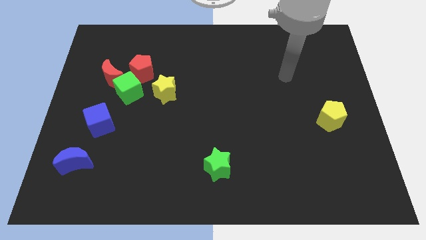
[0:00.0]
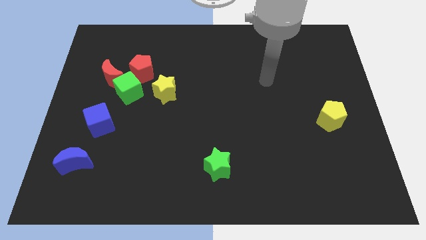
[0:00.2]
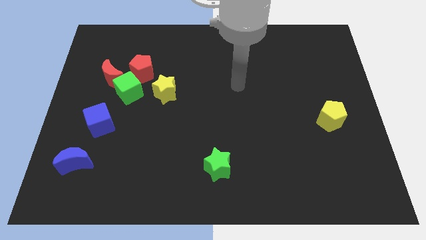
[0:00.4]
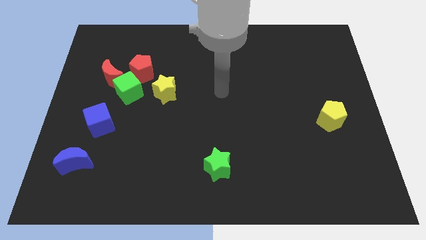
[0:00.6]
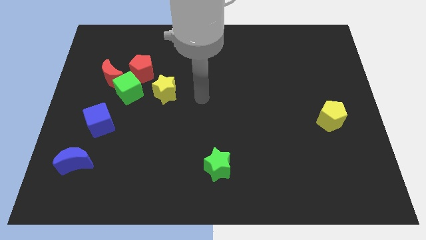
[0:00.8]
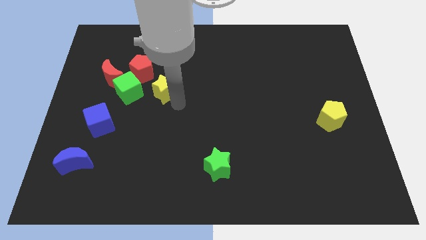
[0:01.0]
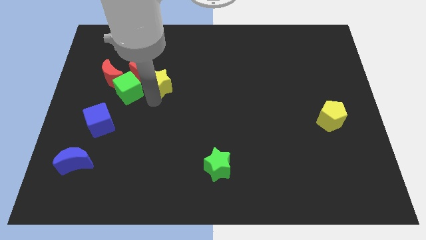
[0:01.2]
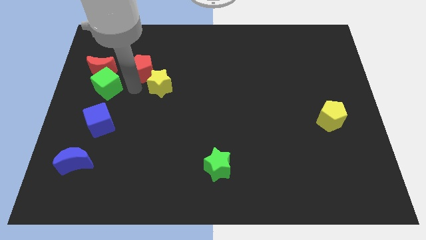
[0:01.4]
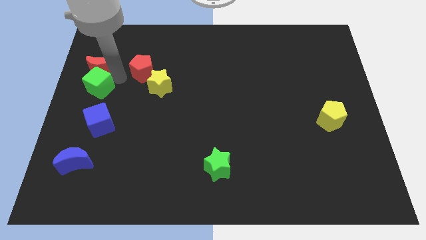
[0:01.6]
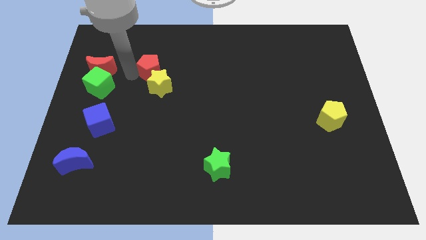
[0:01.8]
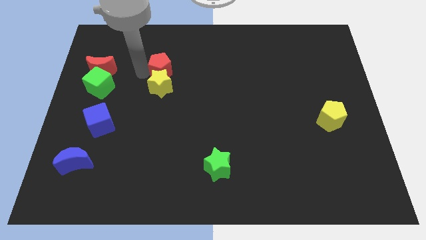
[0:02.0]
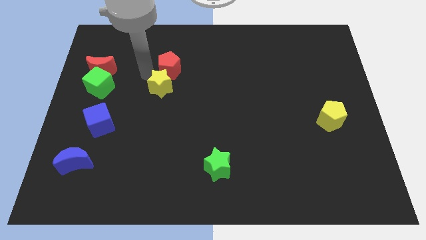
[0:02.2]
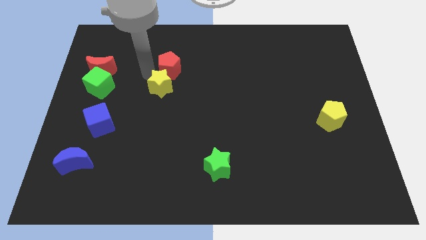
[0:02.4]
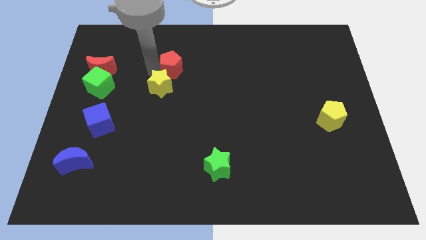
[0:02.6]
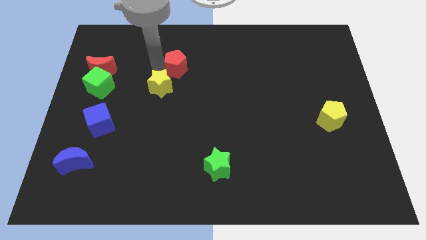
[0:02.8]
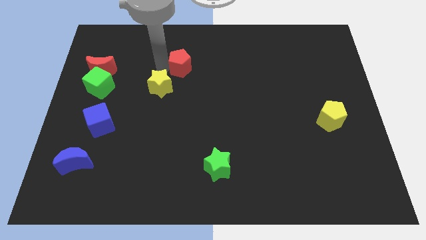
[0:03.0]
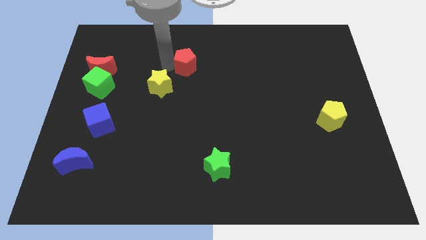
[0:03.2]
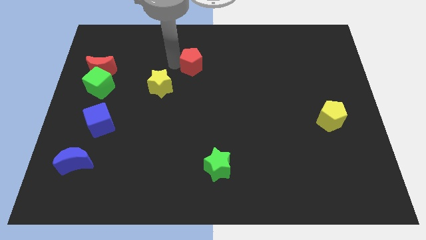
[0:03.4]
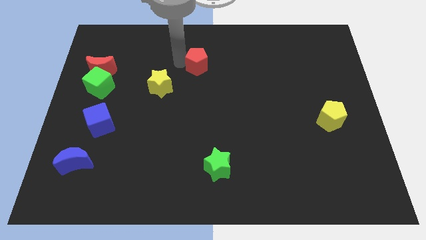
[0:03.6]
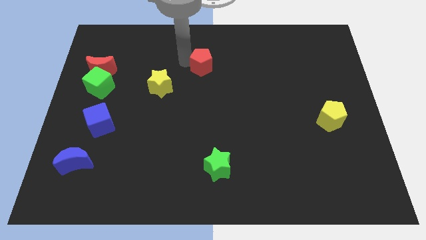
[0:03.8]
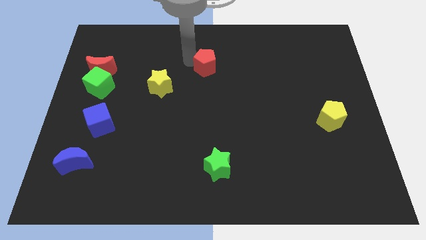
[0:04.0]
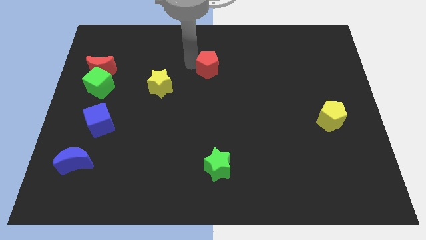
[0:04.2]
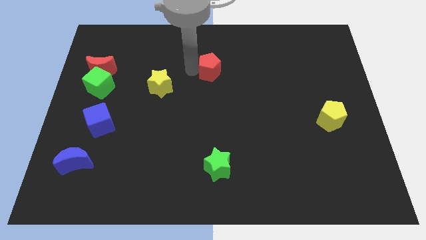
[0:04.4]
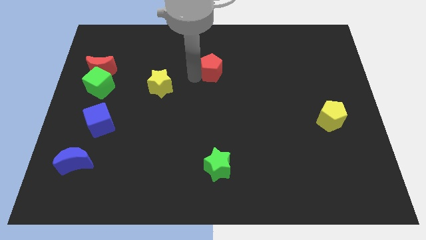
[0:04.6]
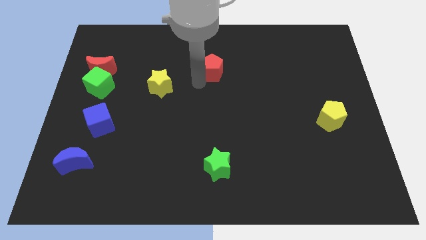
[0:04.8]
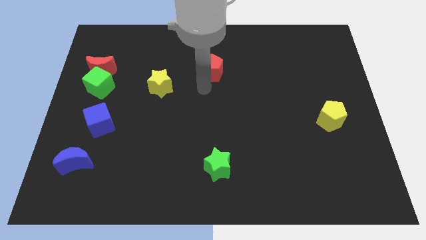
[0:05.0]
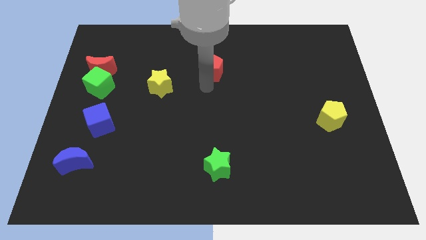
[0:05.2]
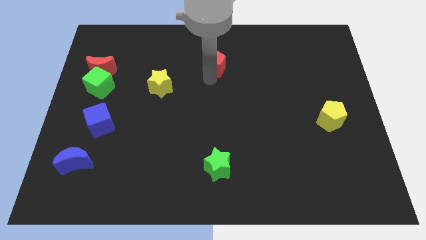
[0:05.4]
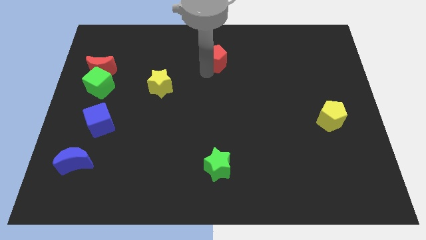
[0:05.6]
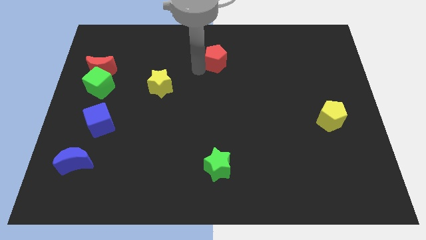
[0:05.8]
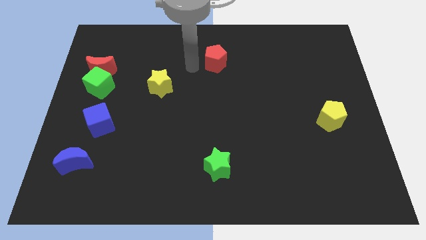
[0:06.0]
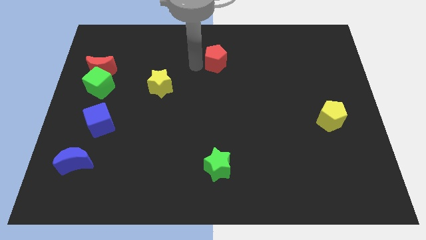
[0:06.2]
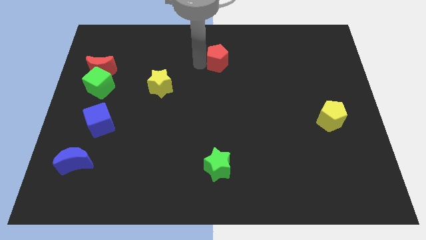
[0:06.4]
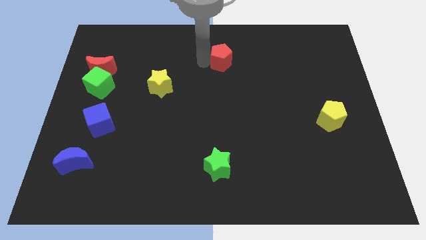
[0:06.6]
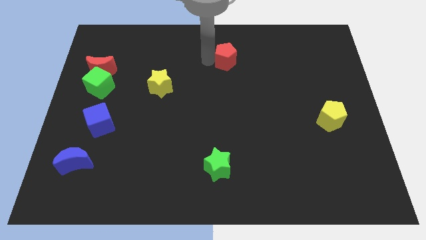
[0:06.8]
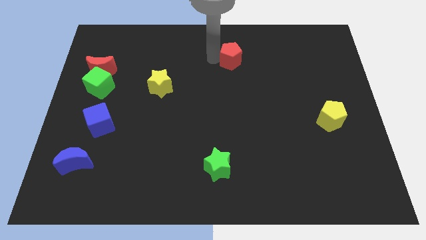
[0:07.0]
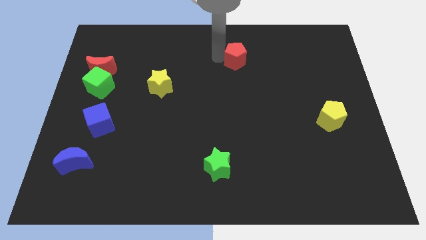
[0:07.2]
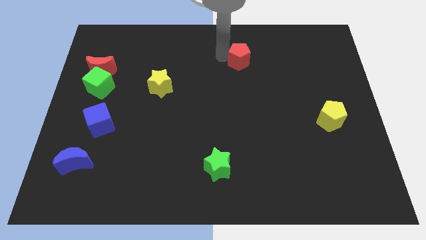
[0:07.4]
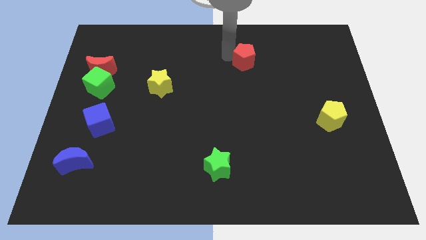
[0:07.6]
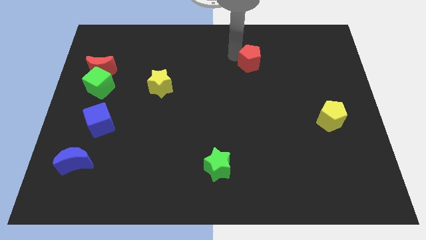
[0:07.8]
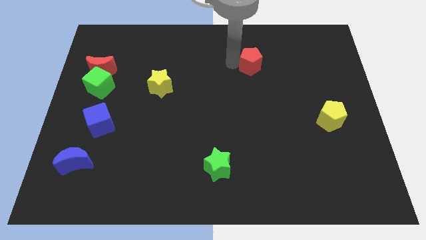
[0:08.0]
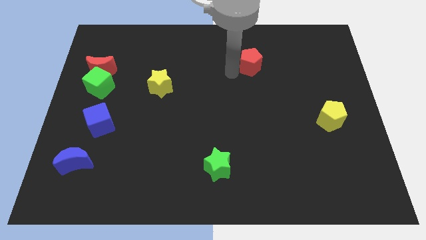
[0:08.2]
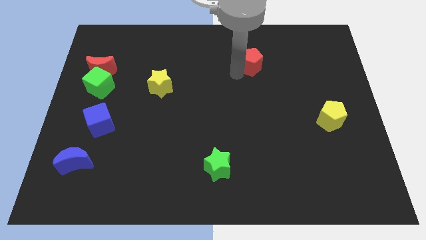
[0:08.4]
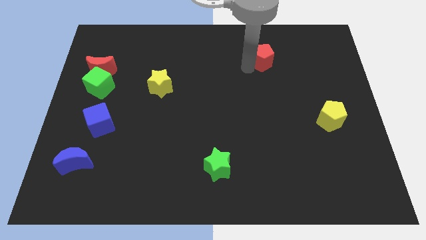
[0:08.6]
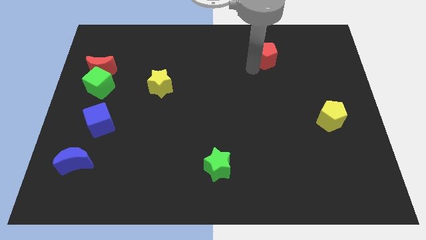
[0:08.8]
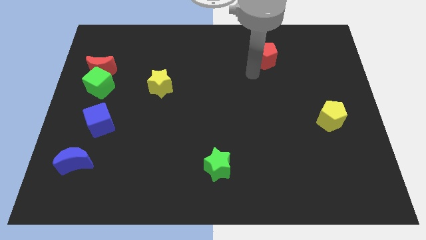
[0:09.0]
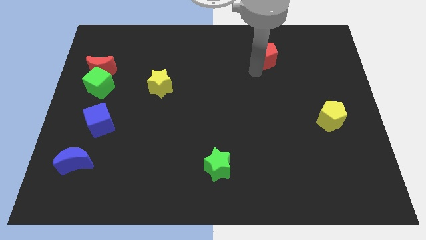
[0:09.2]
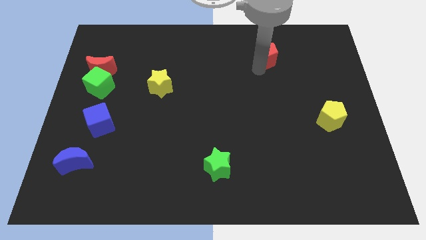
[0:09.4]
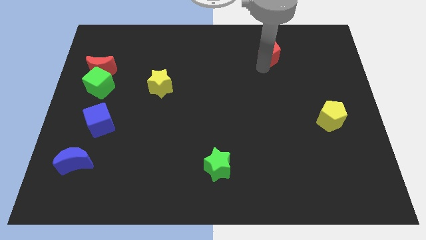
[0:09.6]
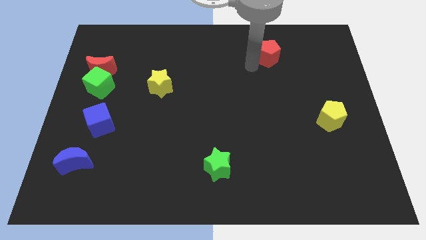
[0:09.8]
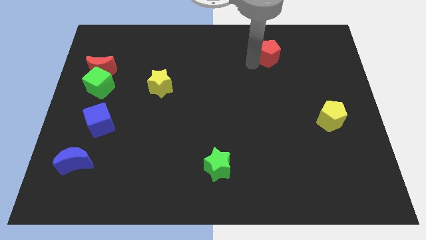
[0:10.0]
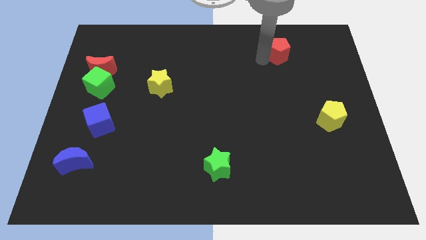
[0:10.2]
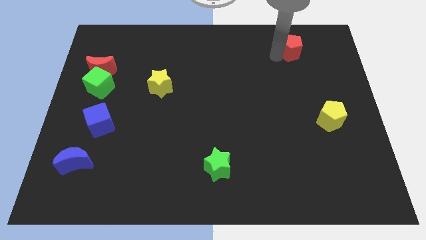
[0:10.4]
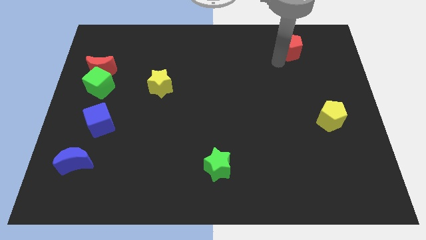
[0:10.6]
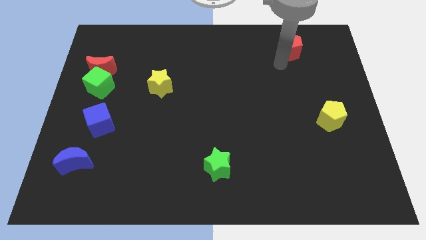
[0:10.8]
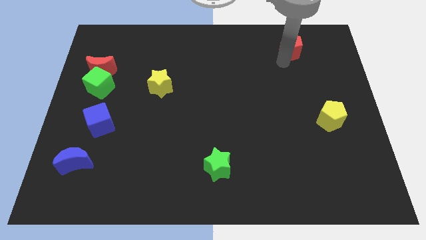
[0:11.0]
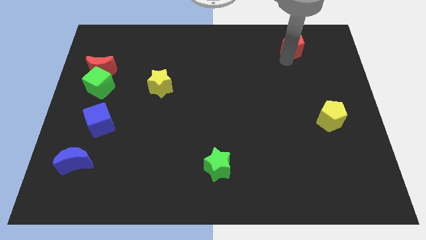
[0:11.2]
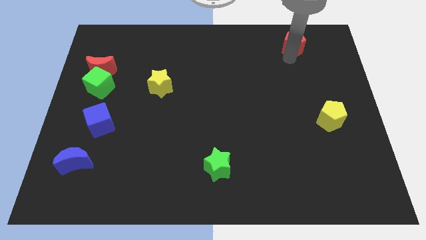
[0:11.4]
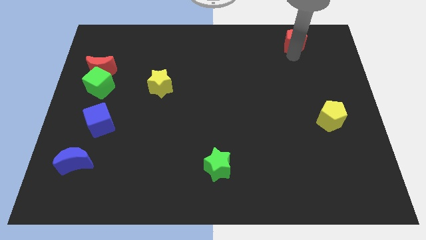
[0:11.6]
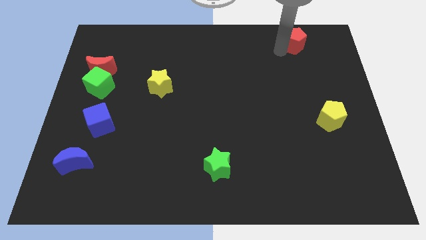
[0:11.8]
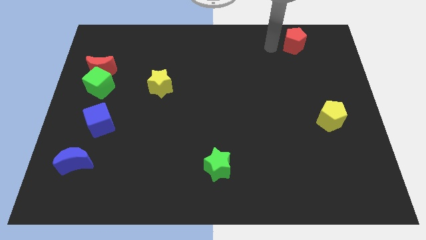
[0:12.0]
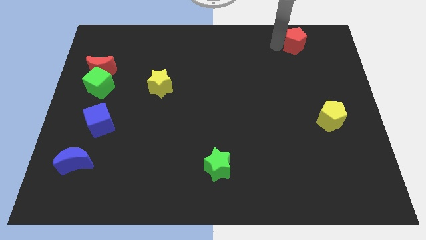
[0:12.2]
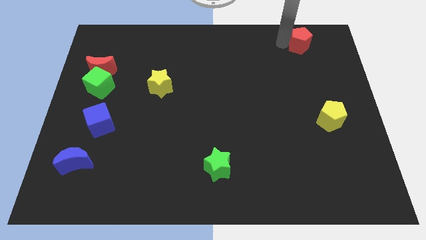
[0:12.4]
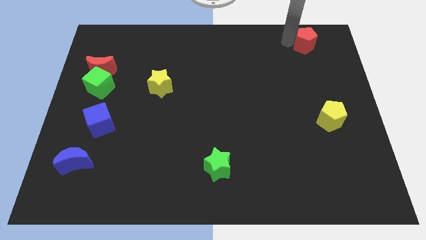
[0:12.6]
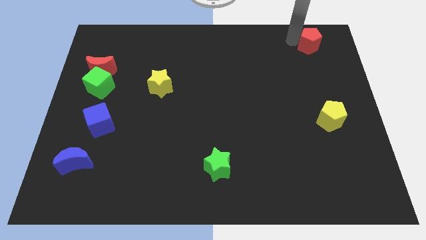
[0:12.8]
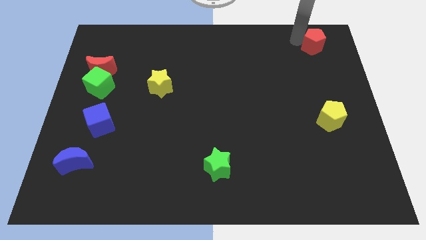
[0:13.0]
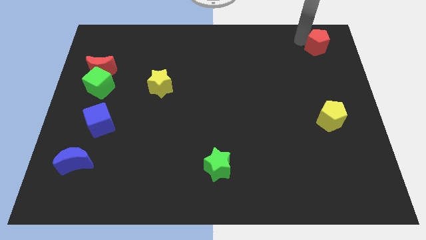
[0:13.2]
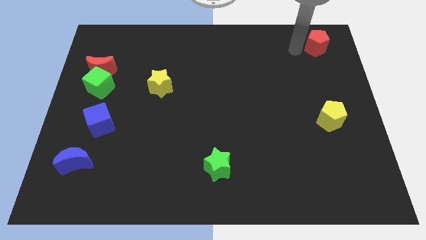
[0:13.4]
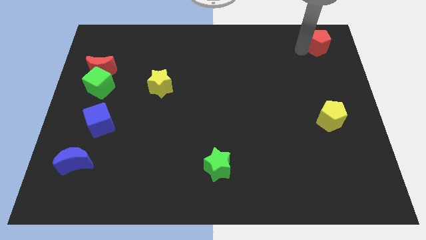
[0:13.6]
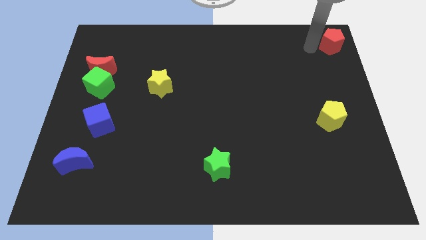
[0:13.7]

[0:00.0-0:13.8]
move the red pentagon to the top right of the board
